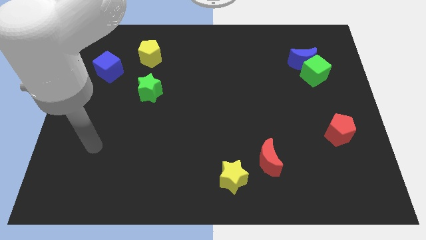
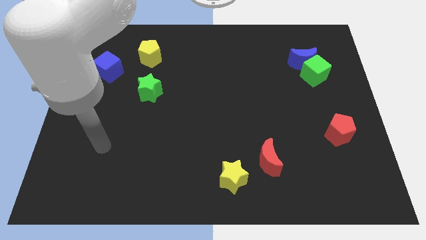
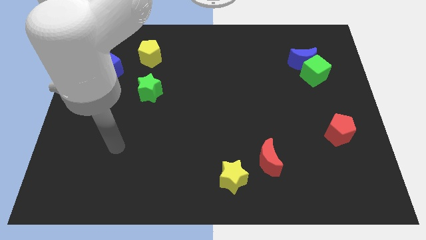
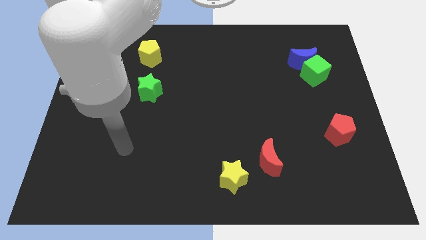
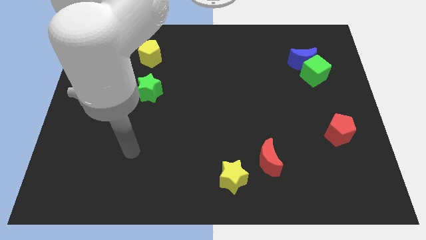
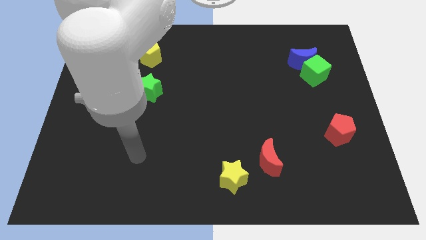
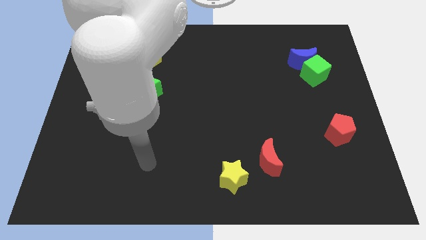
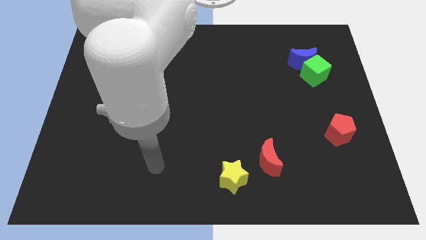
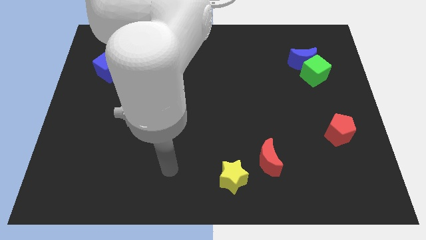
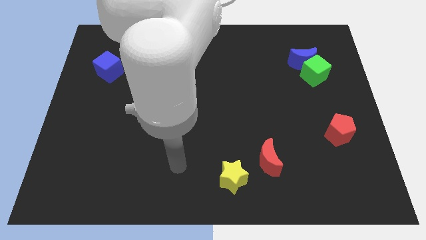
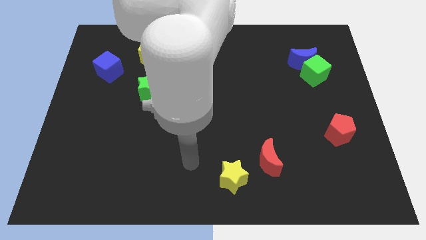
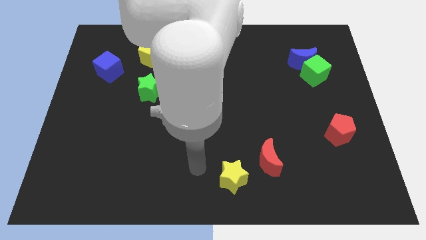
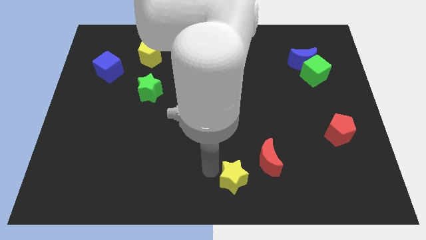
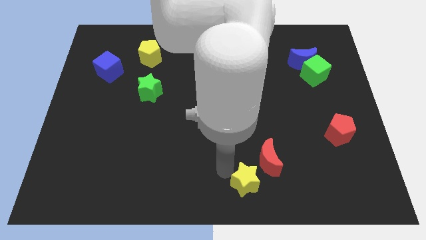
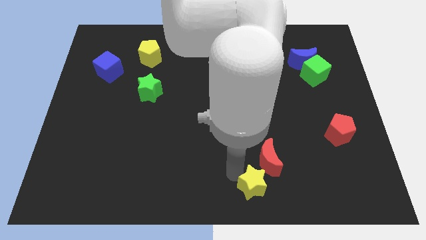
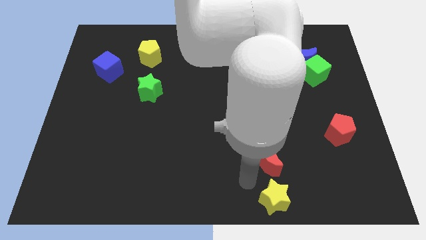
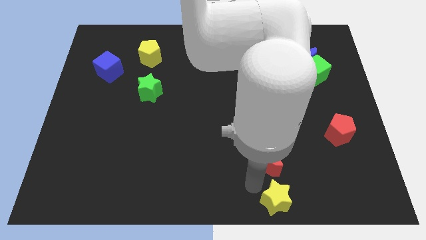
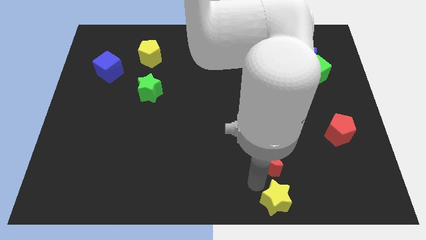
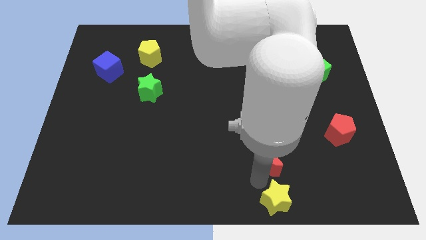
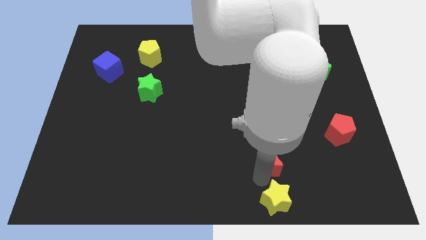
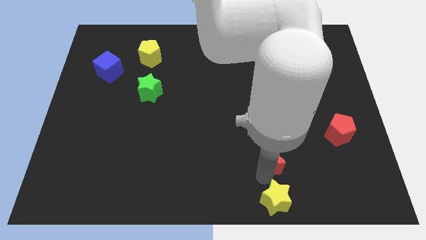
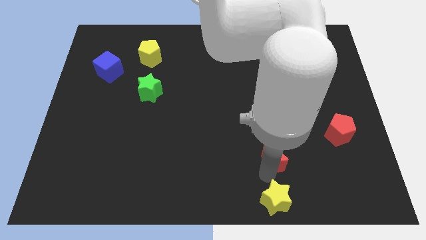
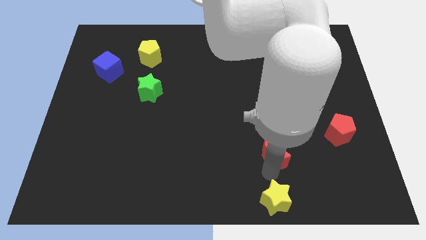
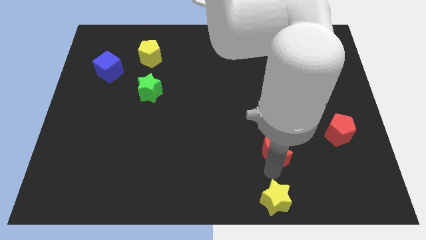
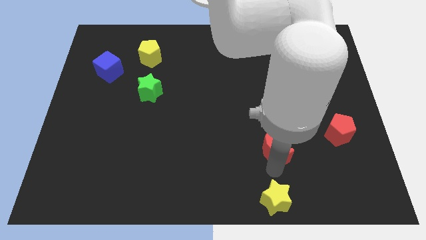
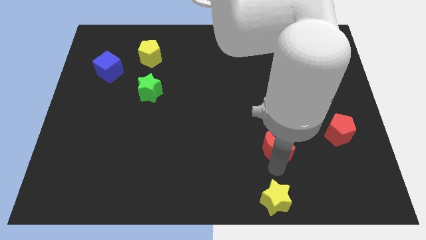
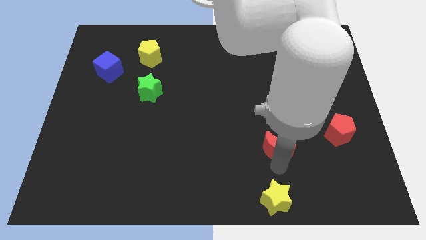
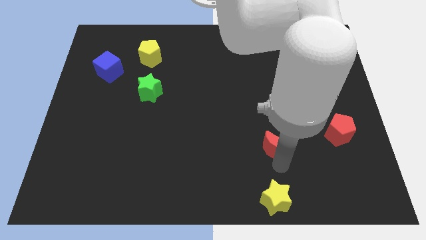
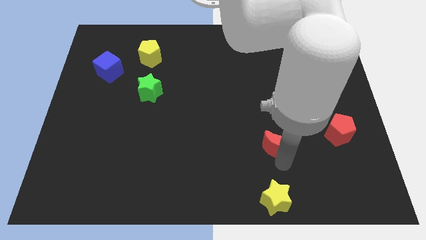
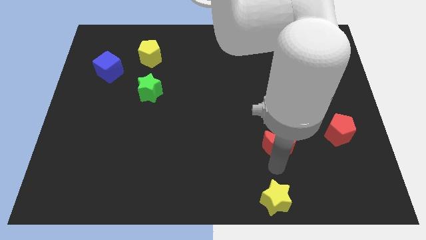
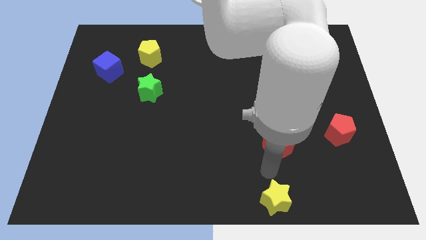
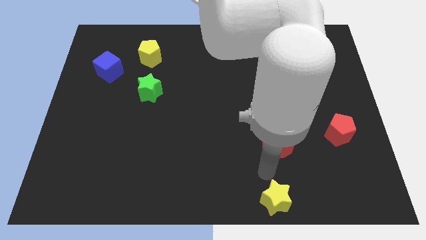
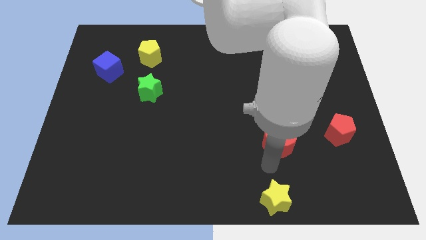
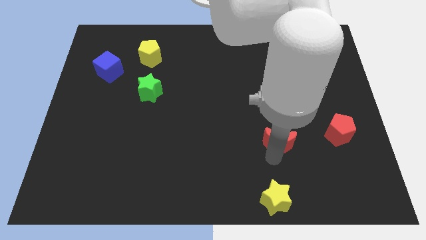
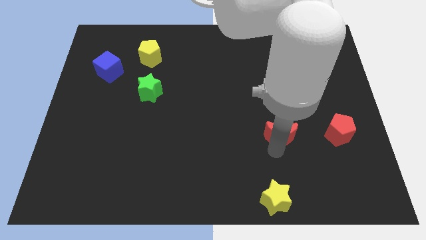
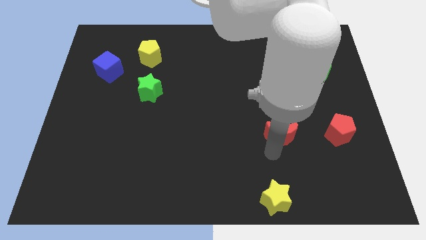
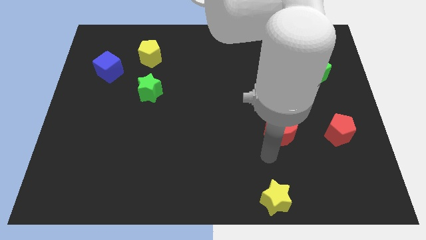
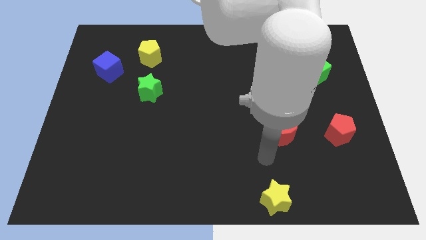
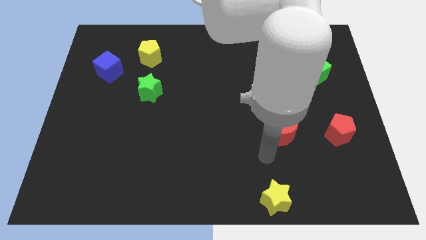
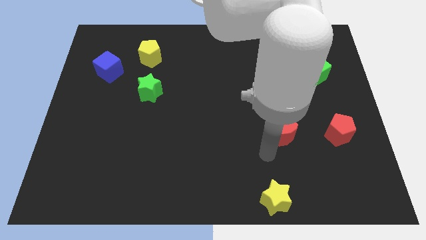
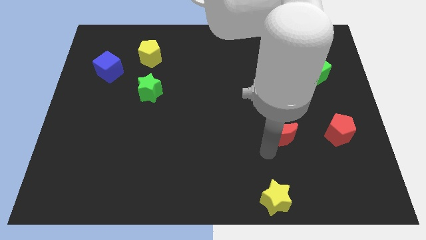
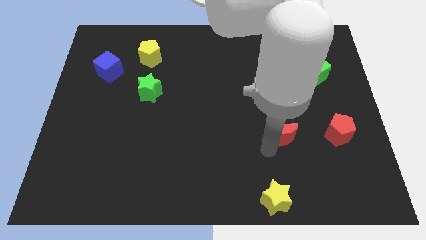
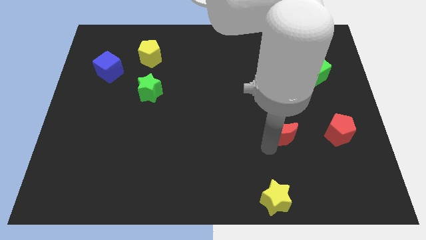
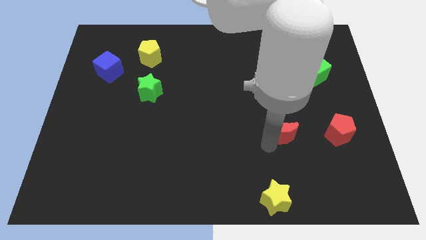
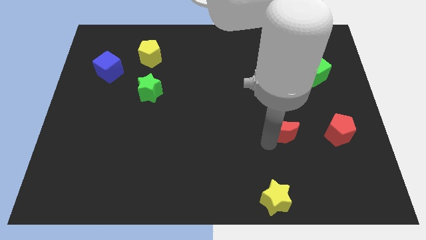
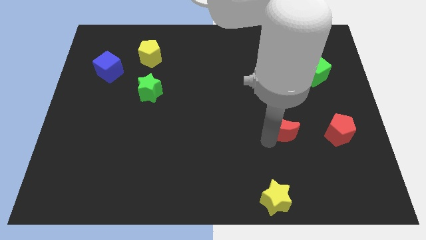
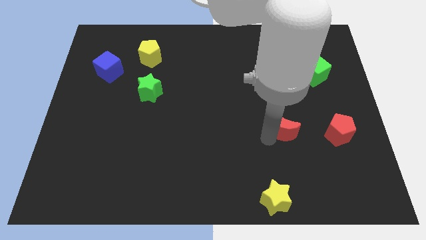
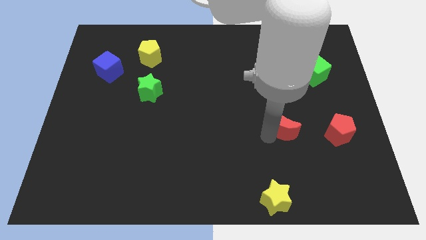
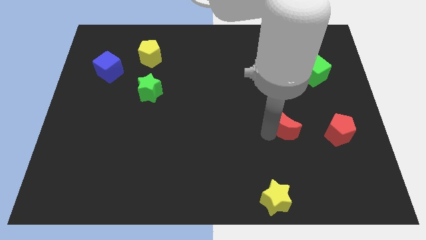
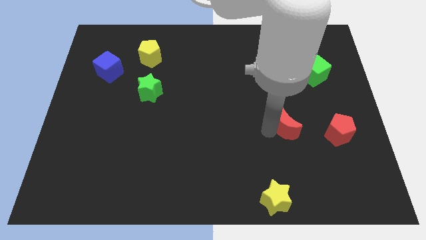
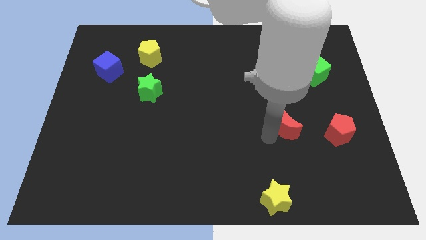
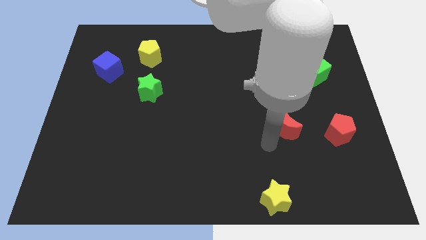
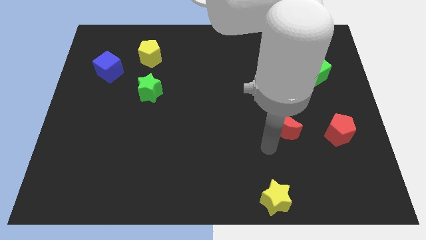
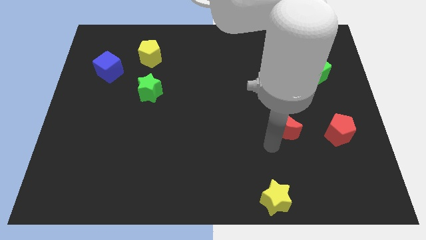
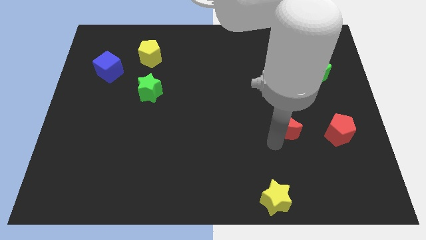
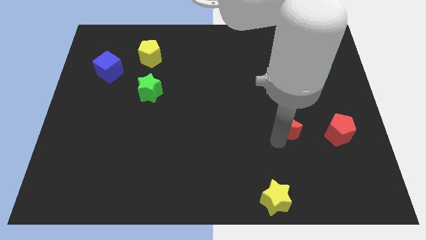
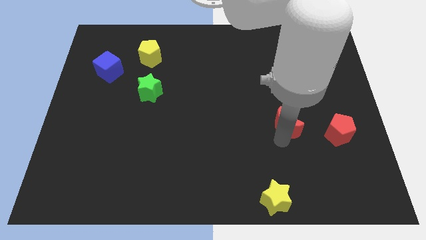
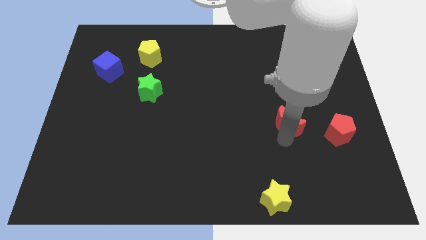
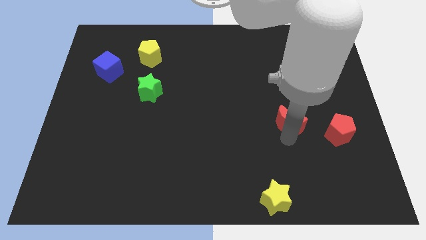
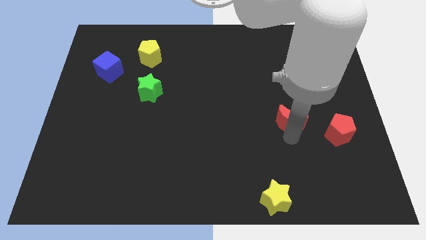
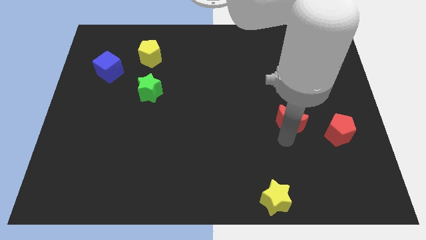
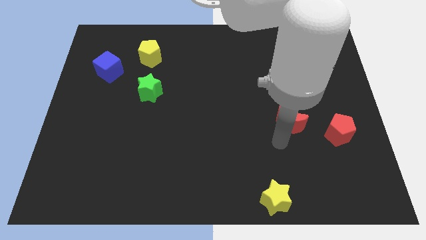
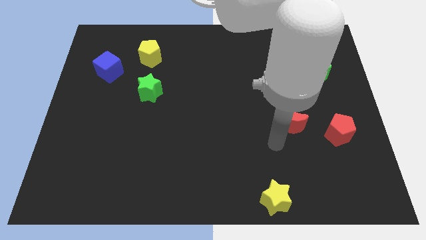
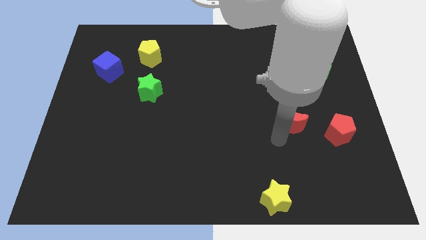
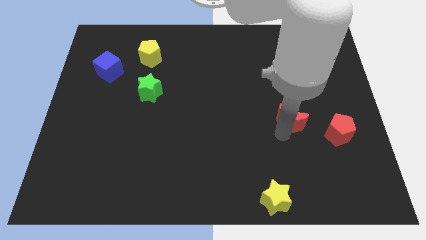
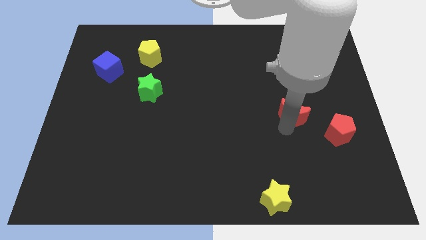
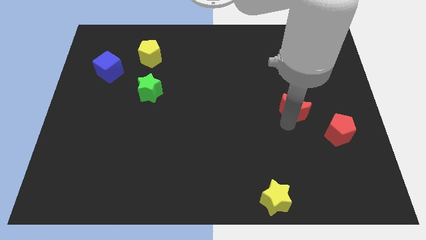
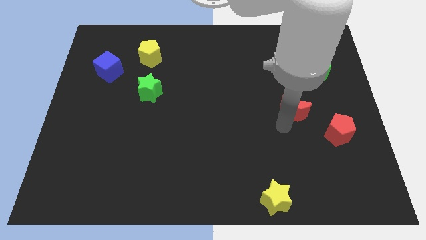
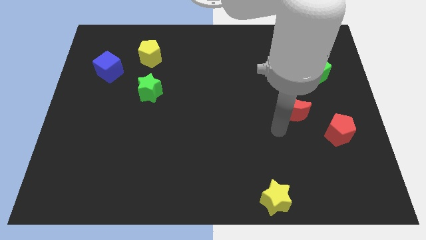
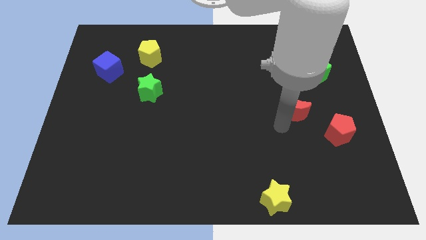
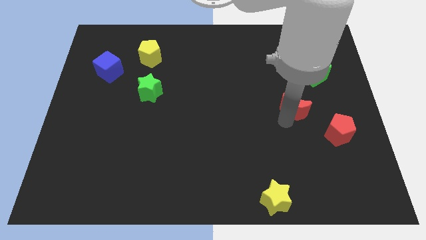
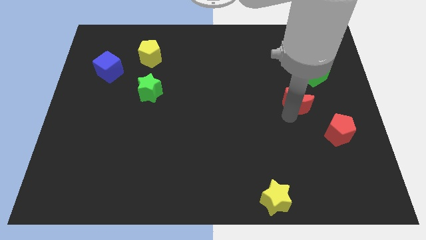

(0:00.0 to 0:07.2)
slide the red moon to the bottom side of the blue moon

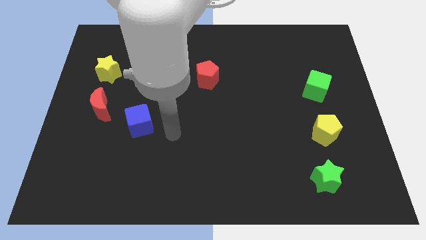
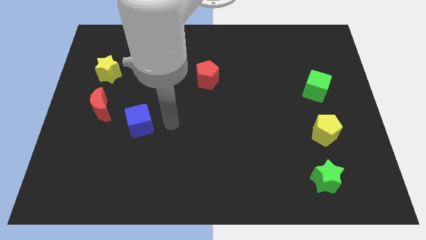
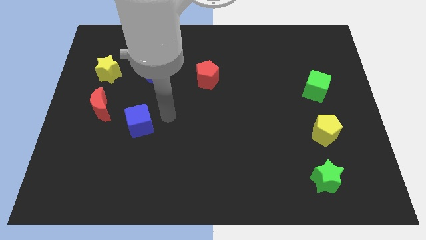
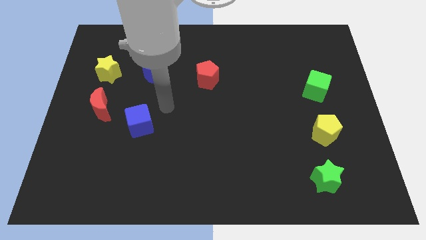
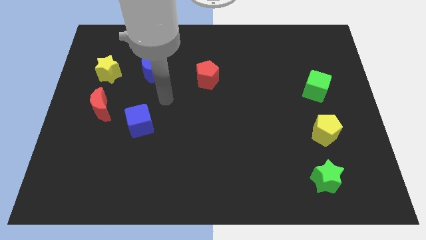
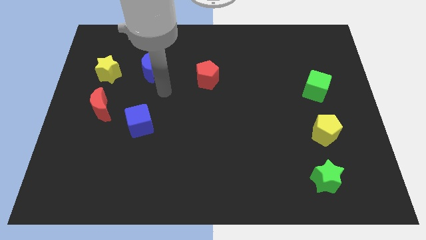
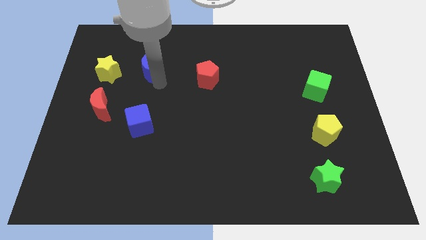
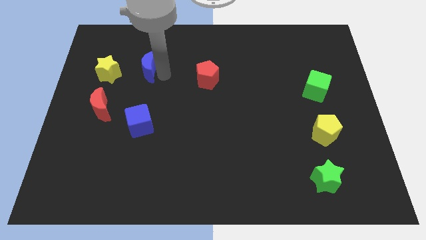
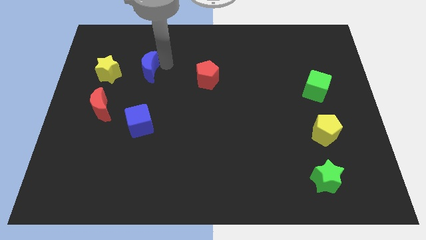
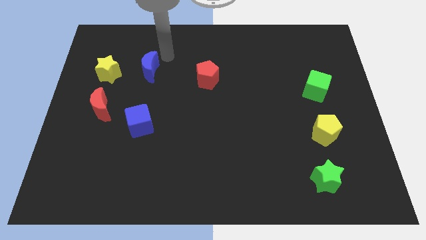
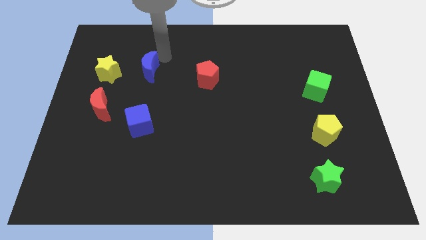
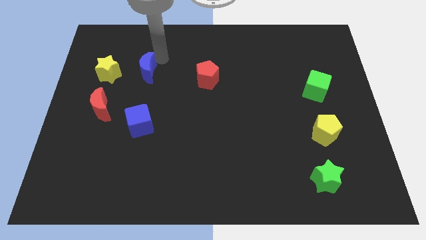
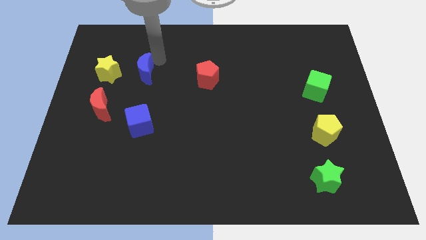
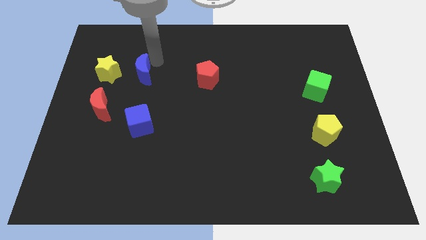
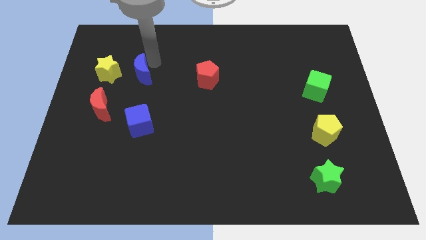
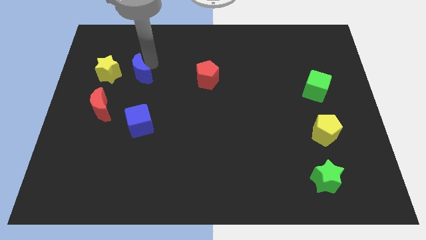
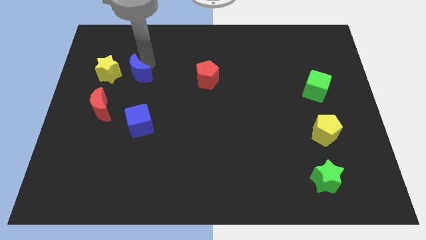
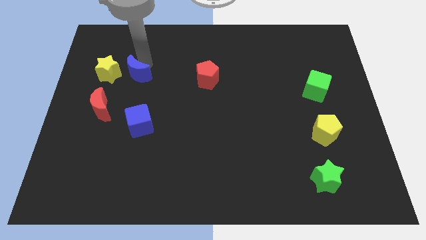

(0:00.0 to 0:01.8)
put the blue moon to the bottom right of the yellow star
